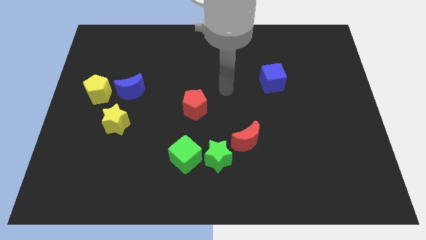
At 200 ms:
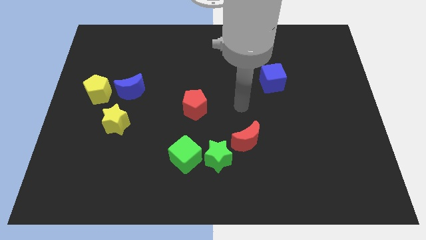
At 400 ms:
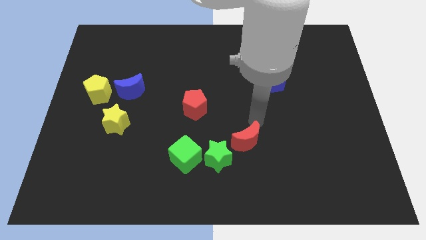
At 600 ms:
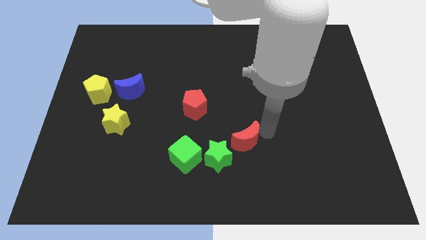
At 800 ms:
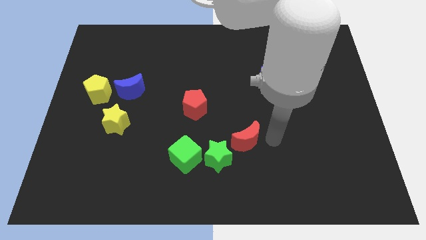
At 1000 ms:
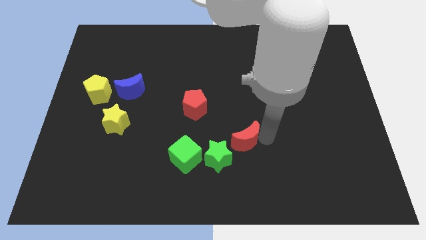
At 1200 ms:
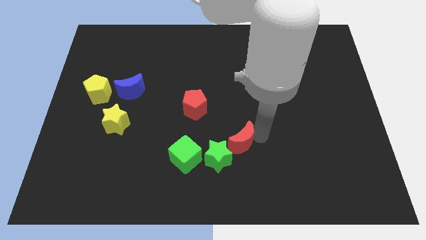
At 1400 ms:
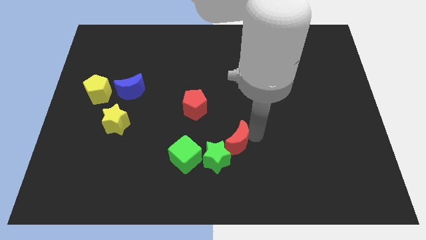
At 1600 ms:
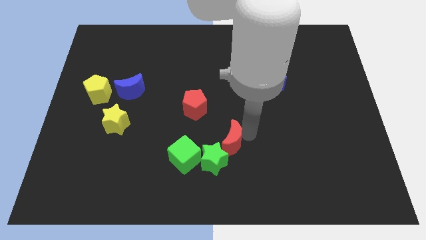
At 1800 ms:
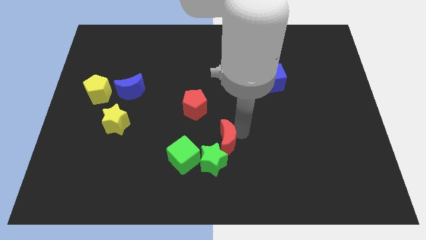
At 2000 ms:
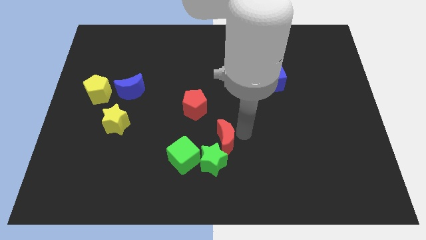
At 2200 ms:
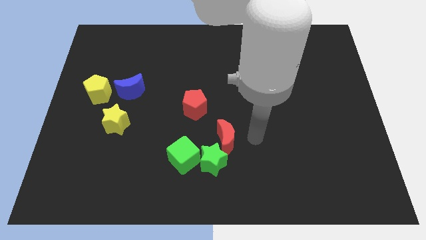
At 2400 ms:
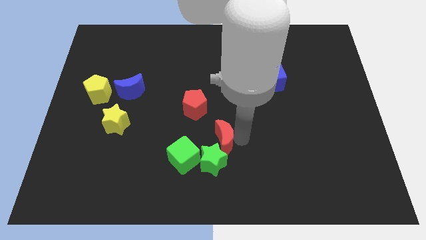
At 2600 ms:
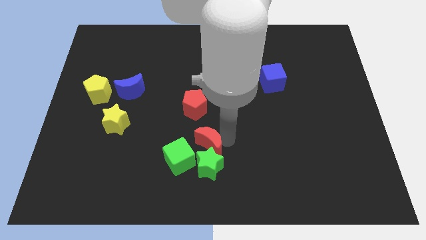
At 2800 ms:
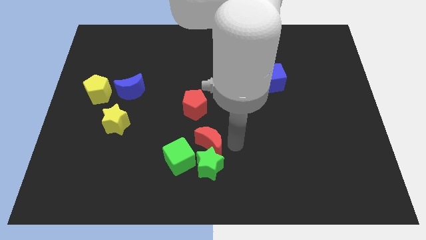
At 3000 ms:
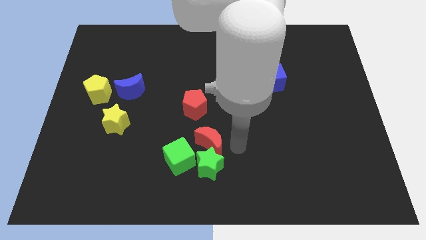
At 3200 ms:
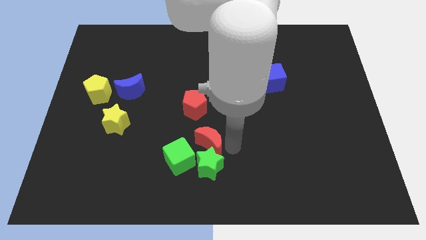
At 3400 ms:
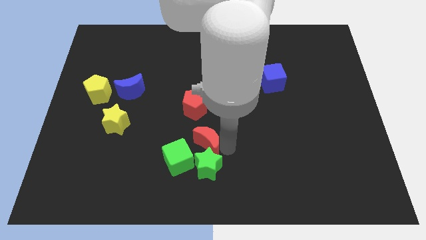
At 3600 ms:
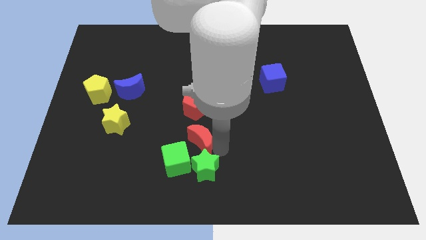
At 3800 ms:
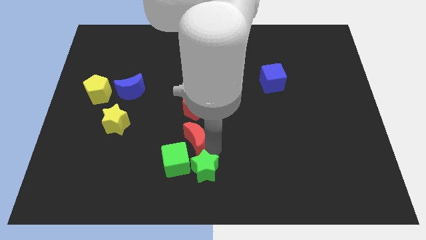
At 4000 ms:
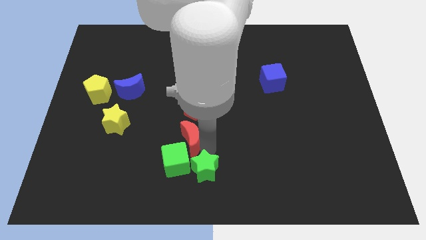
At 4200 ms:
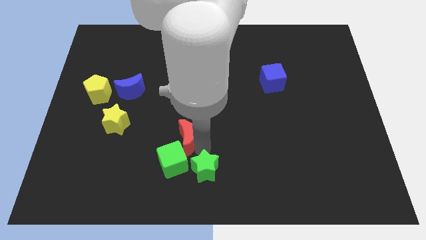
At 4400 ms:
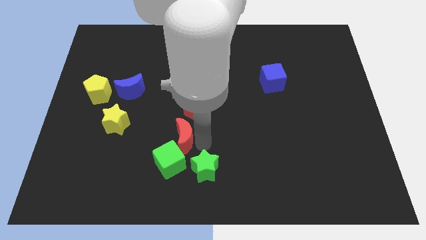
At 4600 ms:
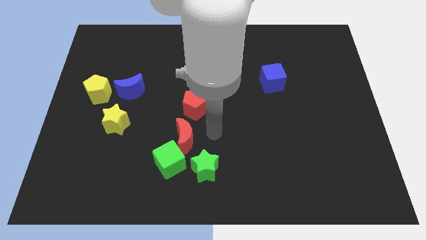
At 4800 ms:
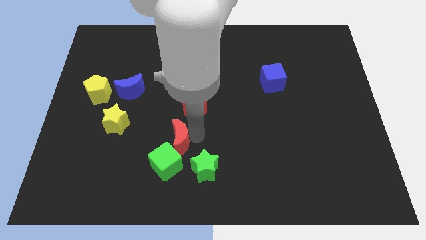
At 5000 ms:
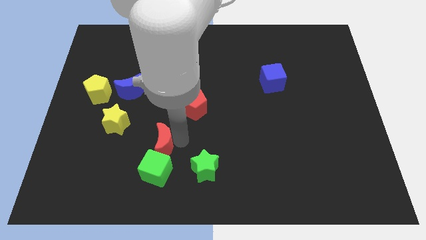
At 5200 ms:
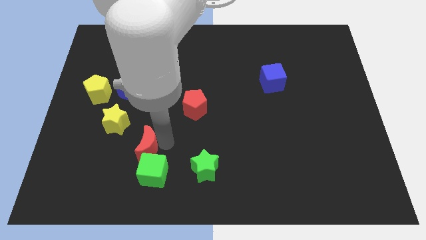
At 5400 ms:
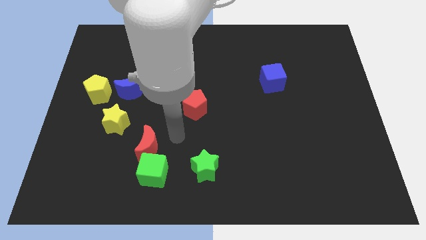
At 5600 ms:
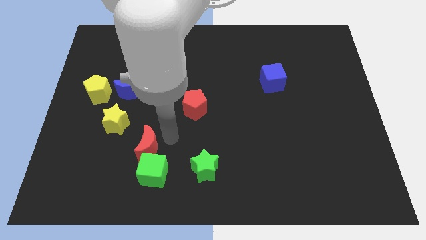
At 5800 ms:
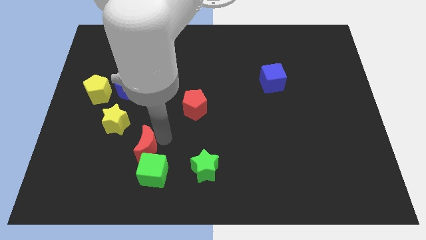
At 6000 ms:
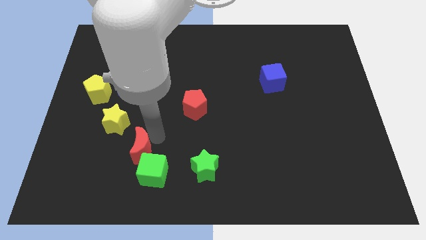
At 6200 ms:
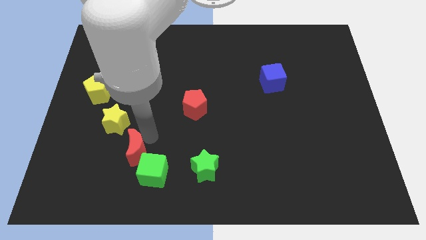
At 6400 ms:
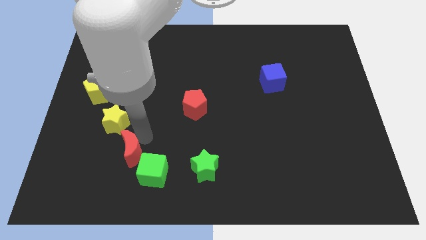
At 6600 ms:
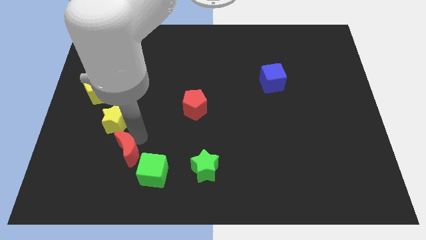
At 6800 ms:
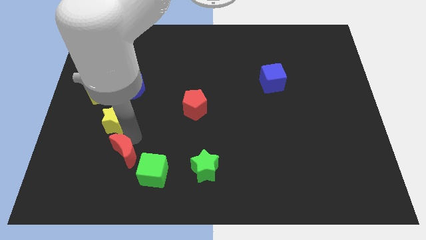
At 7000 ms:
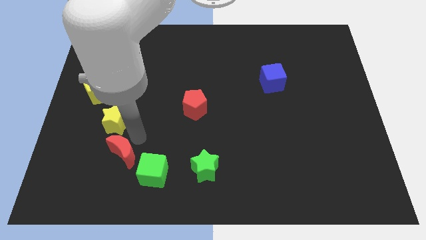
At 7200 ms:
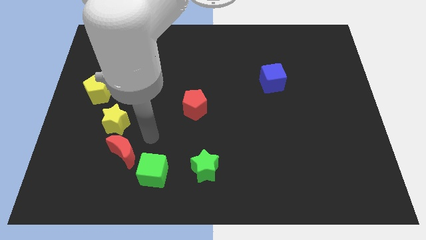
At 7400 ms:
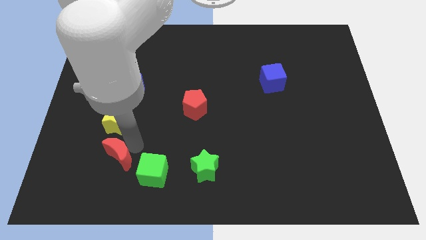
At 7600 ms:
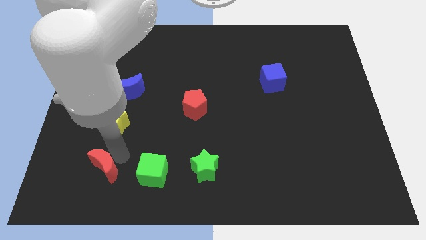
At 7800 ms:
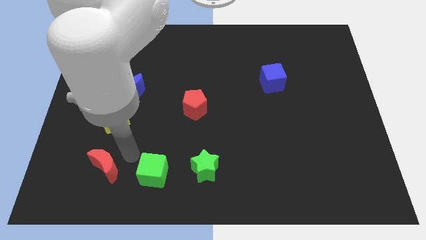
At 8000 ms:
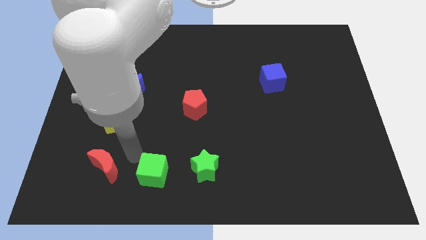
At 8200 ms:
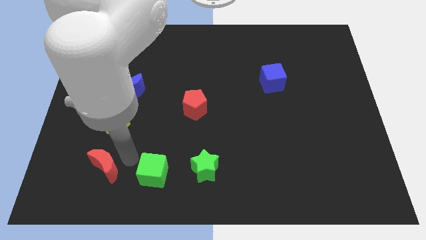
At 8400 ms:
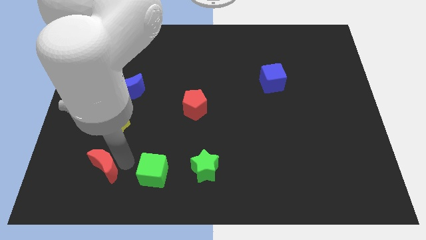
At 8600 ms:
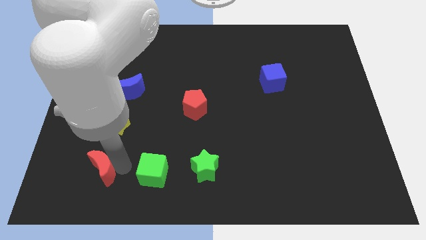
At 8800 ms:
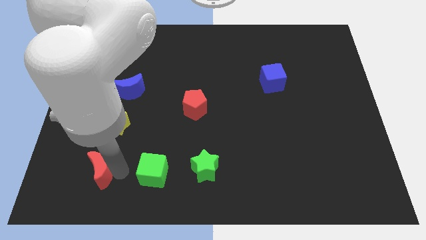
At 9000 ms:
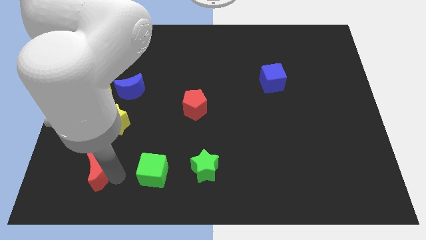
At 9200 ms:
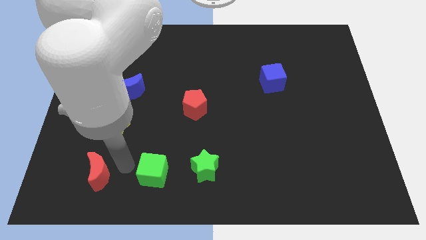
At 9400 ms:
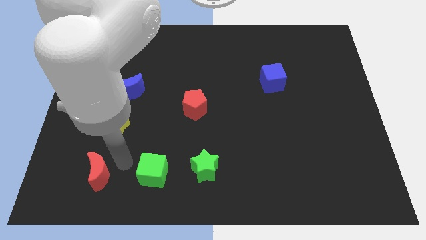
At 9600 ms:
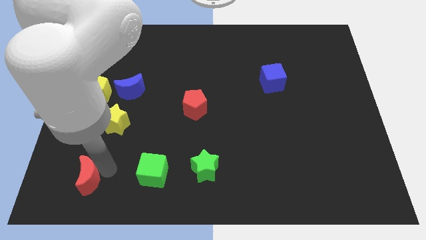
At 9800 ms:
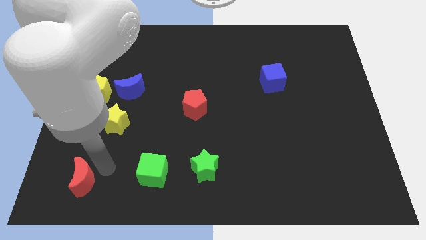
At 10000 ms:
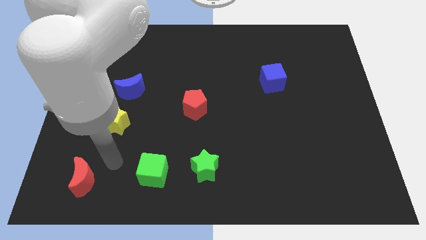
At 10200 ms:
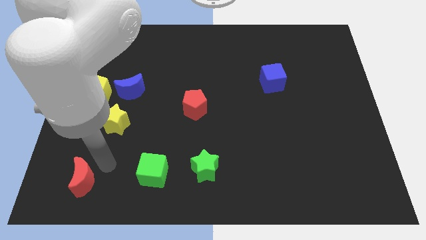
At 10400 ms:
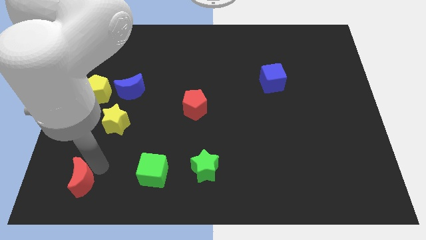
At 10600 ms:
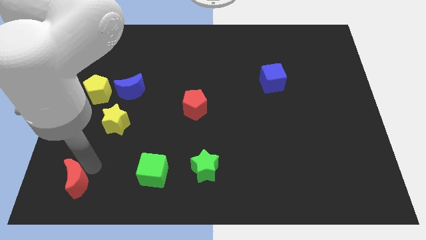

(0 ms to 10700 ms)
move the red moon to the lower left corner

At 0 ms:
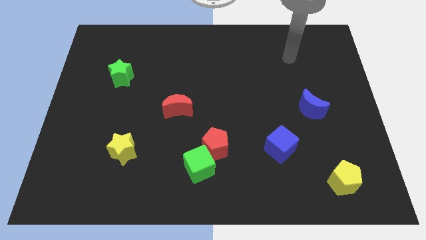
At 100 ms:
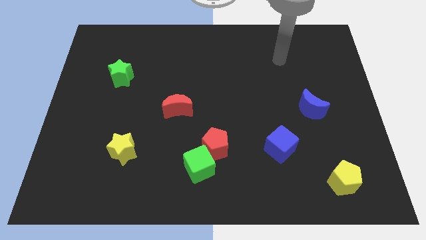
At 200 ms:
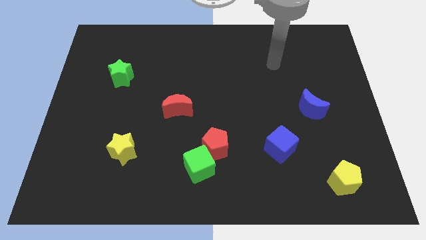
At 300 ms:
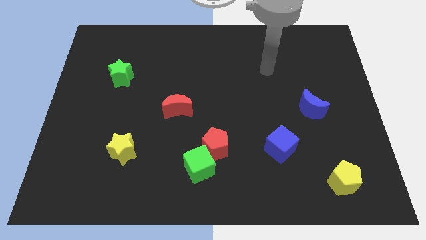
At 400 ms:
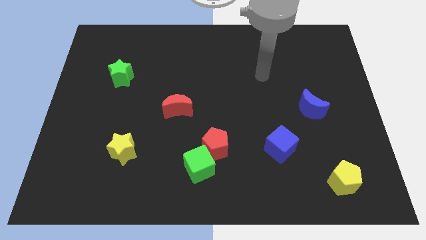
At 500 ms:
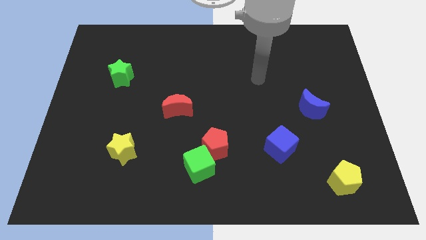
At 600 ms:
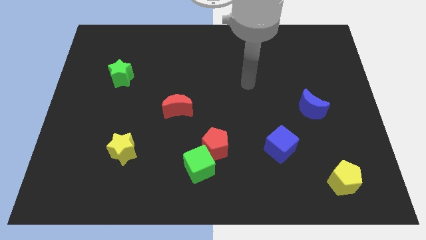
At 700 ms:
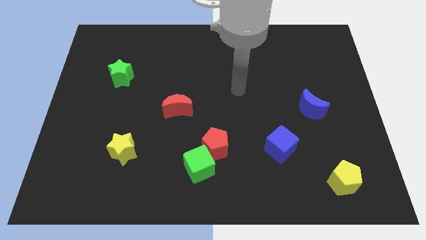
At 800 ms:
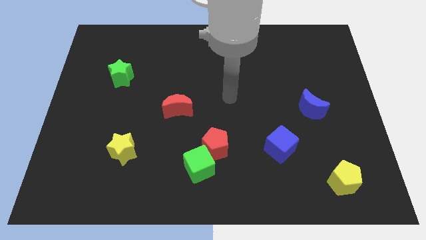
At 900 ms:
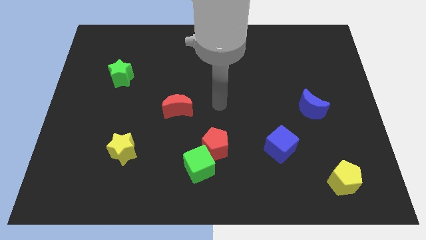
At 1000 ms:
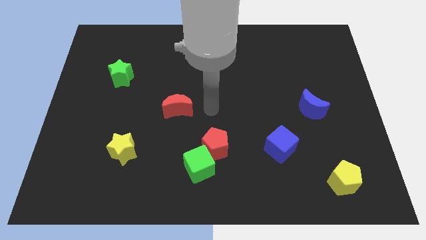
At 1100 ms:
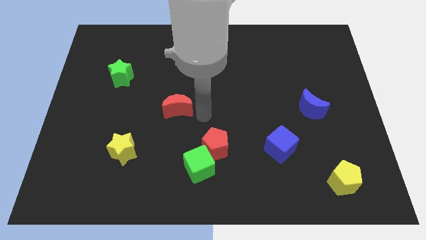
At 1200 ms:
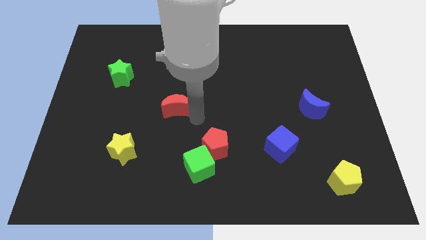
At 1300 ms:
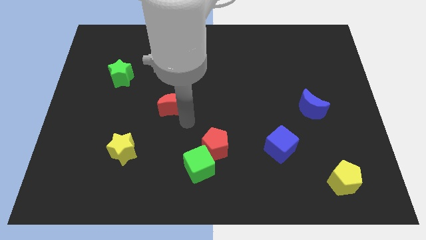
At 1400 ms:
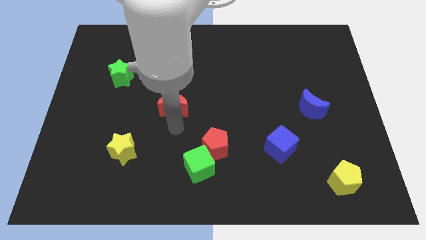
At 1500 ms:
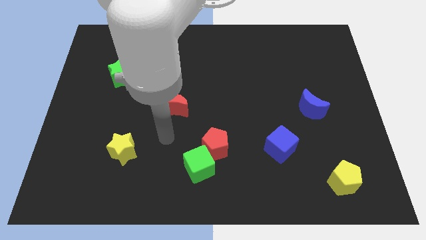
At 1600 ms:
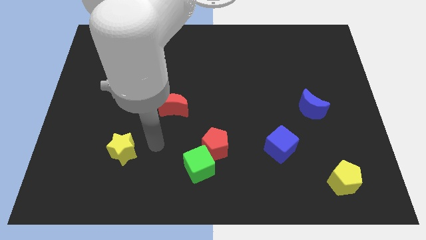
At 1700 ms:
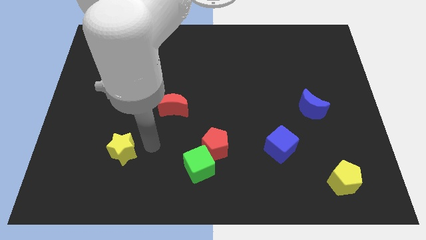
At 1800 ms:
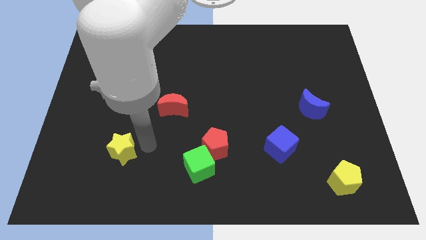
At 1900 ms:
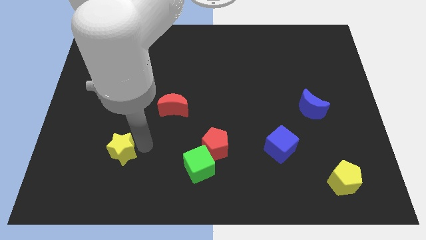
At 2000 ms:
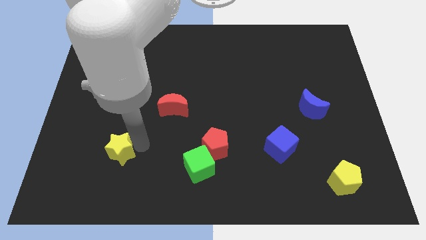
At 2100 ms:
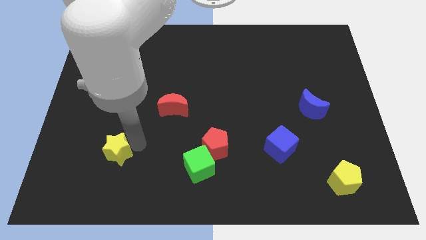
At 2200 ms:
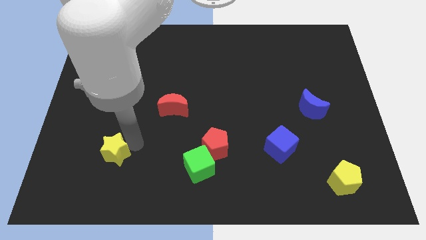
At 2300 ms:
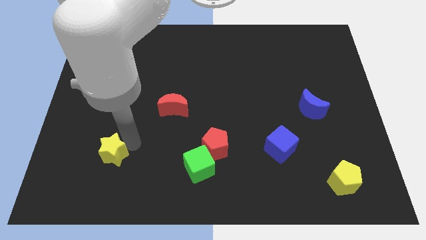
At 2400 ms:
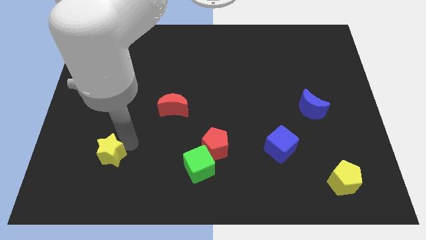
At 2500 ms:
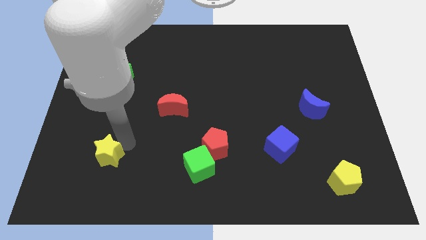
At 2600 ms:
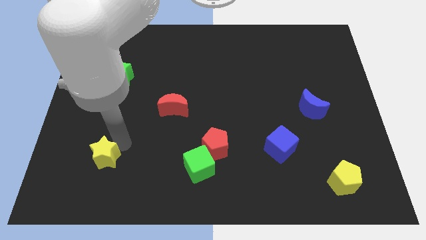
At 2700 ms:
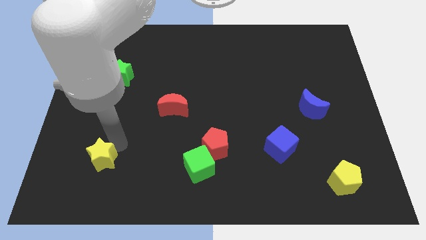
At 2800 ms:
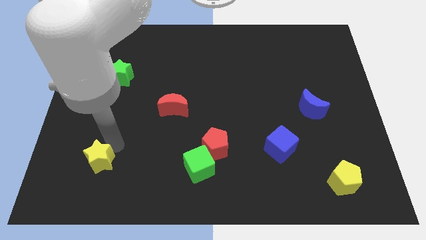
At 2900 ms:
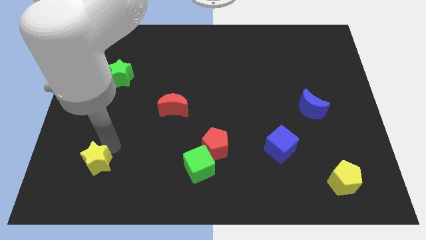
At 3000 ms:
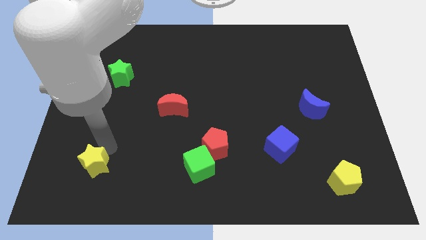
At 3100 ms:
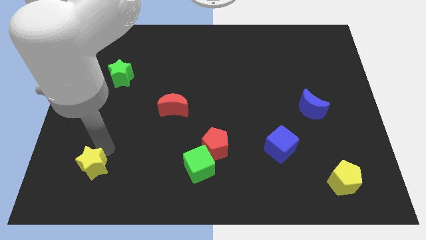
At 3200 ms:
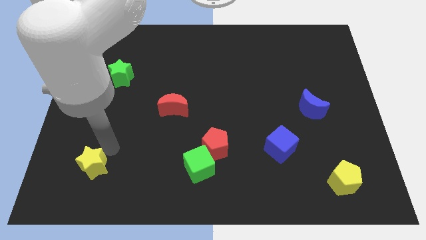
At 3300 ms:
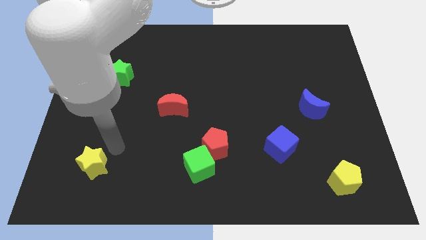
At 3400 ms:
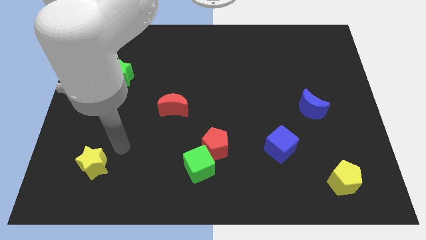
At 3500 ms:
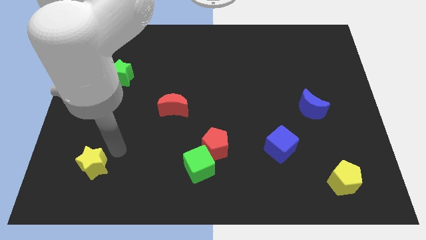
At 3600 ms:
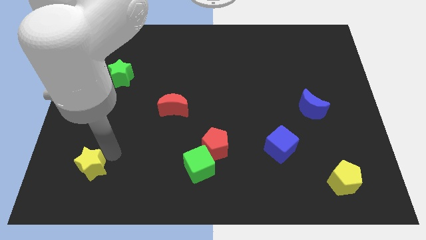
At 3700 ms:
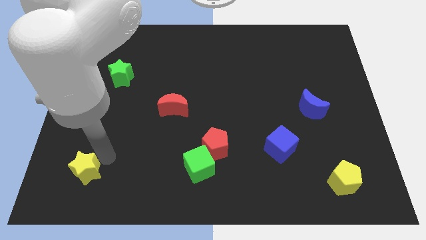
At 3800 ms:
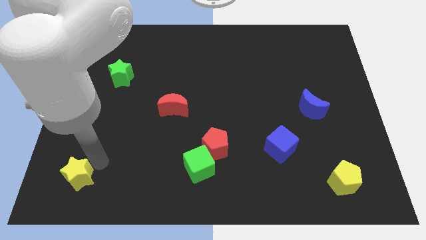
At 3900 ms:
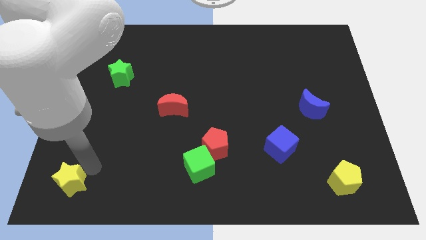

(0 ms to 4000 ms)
put the yellow star to the lower left corner
